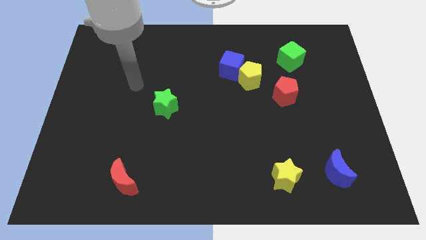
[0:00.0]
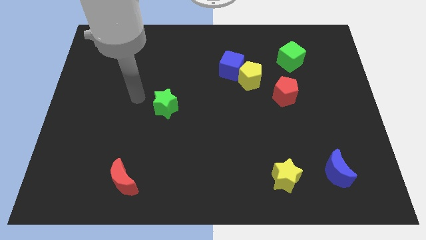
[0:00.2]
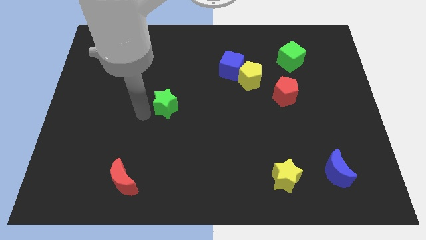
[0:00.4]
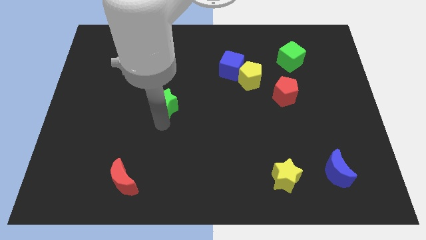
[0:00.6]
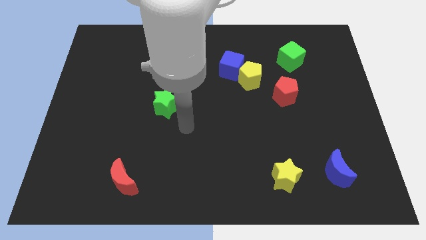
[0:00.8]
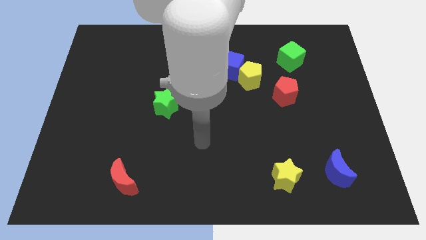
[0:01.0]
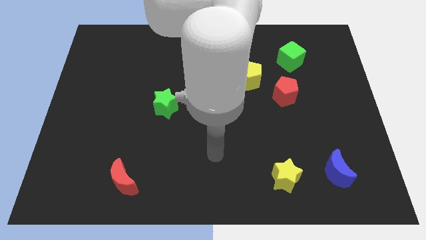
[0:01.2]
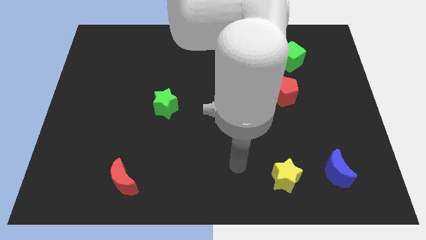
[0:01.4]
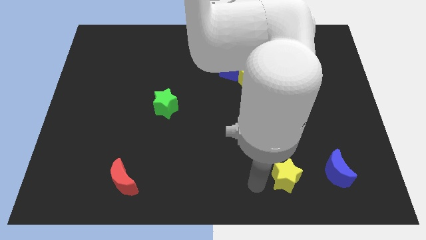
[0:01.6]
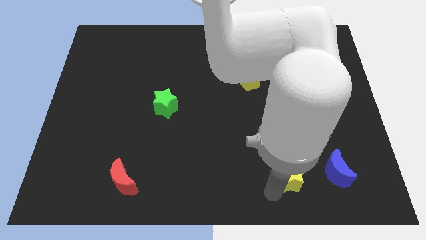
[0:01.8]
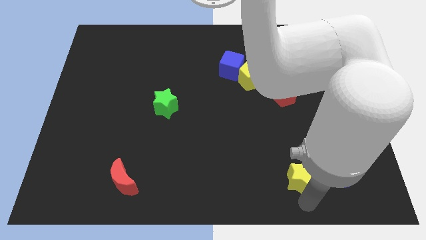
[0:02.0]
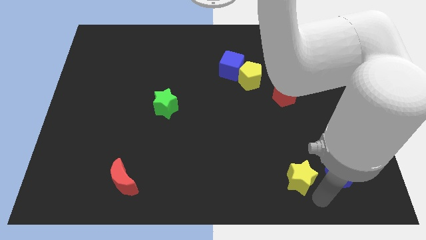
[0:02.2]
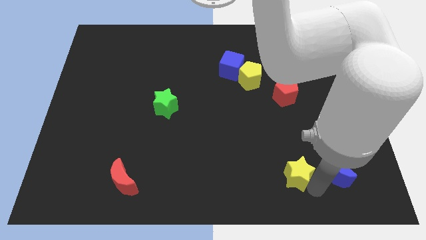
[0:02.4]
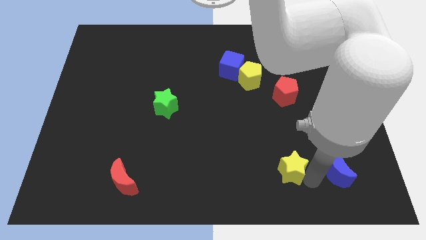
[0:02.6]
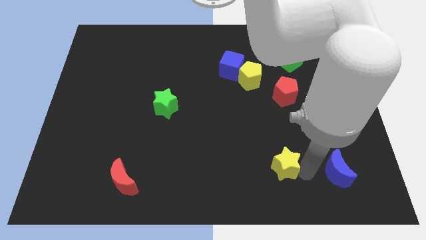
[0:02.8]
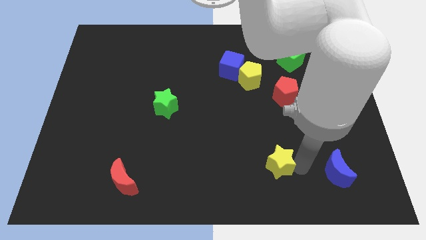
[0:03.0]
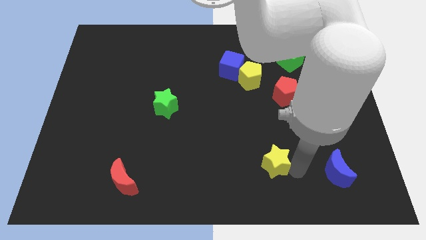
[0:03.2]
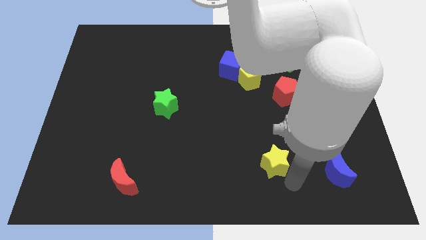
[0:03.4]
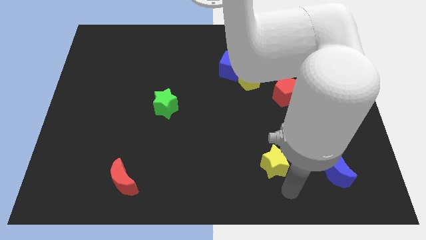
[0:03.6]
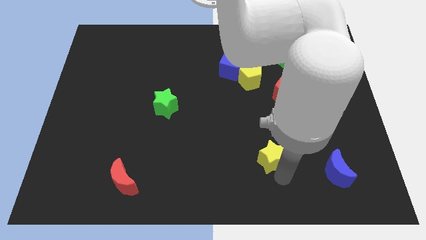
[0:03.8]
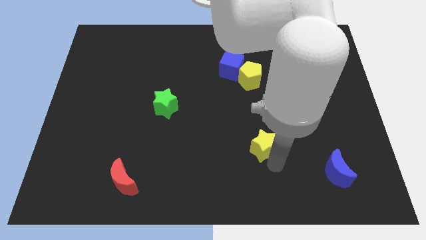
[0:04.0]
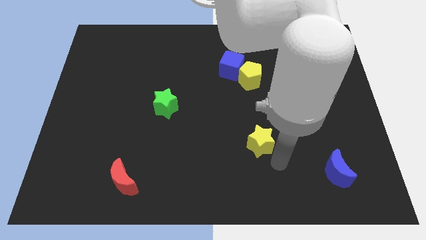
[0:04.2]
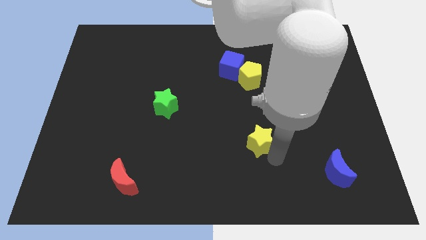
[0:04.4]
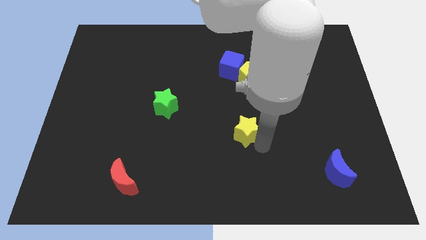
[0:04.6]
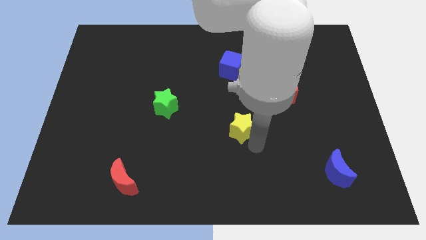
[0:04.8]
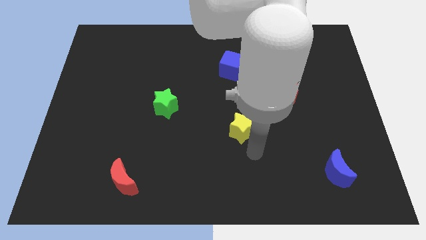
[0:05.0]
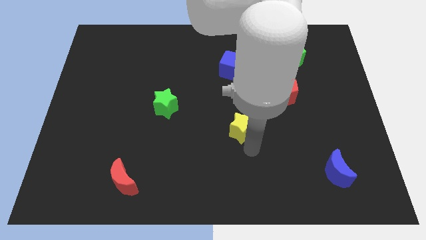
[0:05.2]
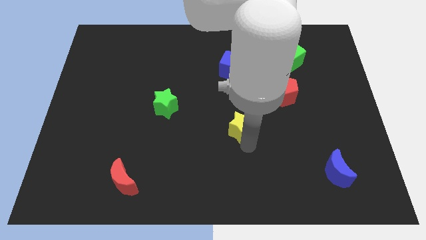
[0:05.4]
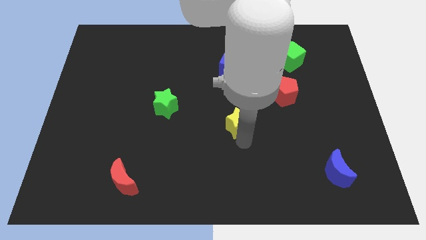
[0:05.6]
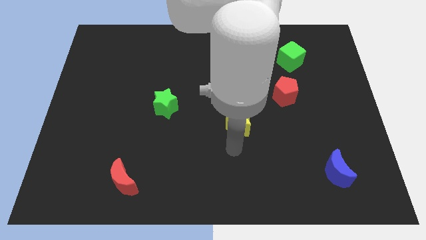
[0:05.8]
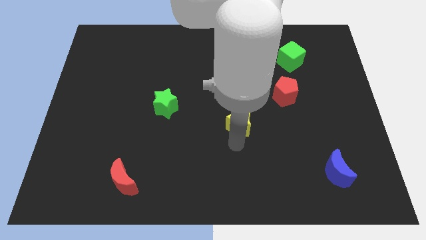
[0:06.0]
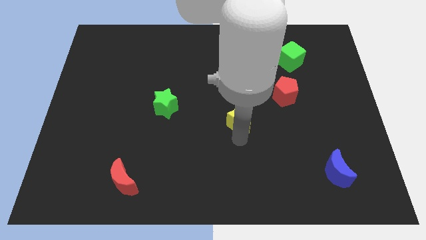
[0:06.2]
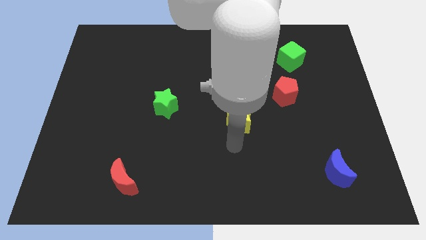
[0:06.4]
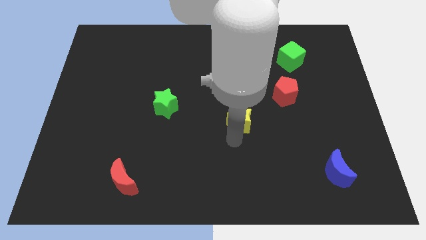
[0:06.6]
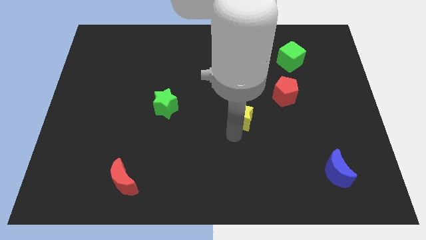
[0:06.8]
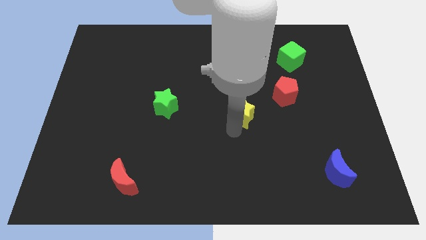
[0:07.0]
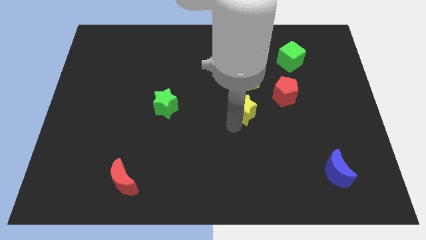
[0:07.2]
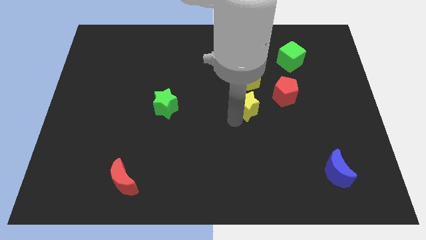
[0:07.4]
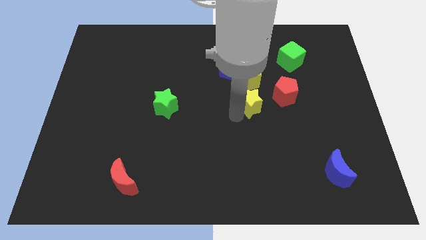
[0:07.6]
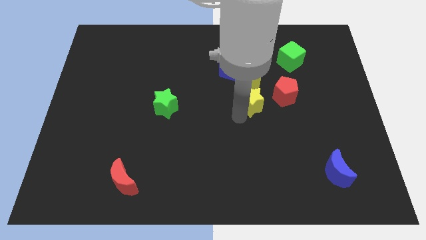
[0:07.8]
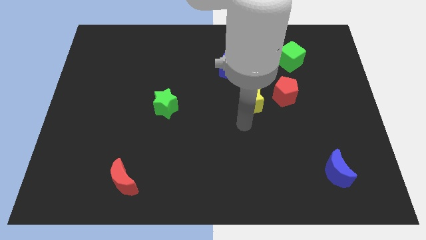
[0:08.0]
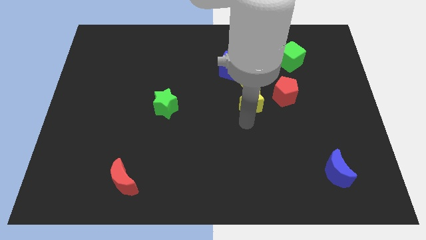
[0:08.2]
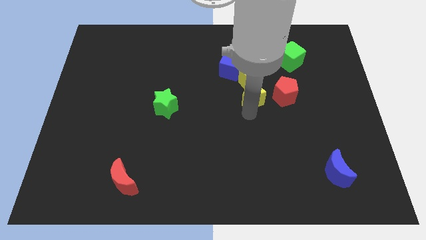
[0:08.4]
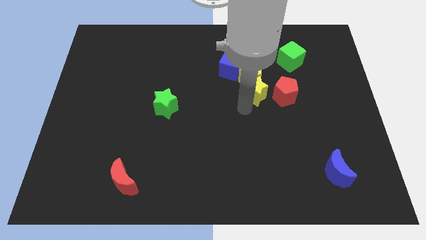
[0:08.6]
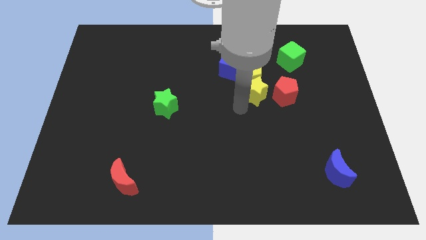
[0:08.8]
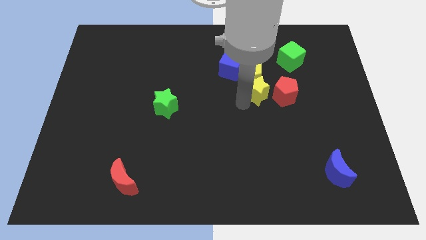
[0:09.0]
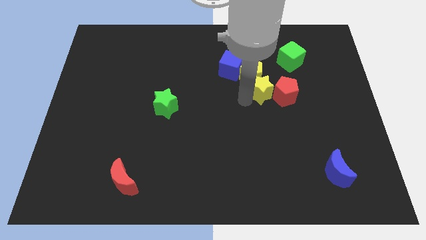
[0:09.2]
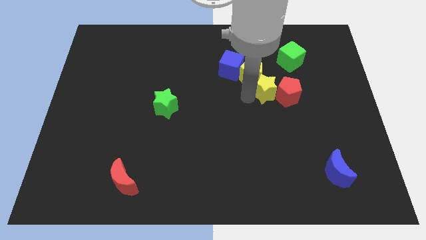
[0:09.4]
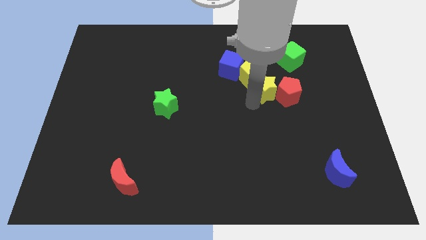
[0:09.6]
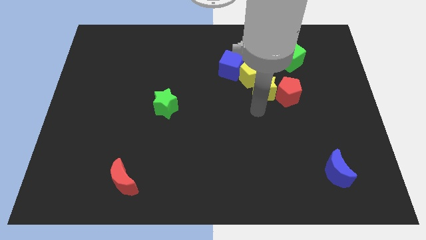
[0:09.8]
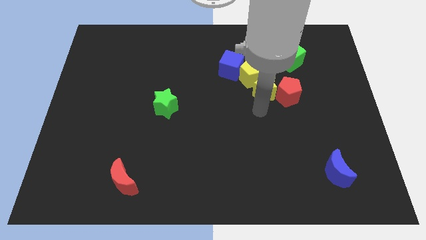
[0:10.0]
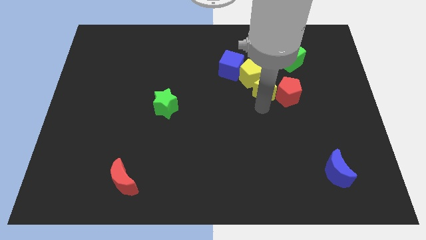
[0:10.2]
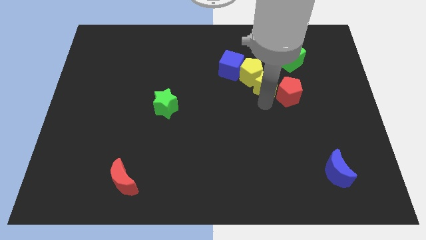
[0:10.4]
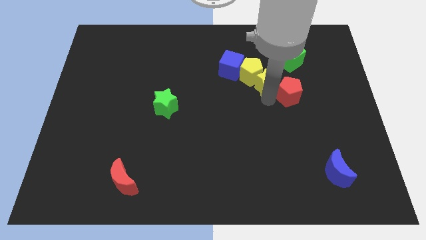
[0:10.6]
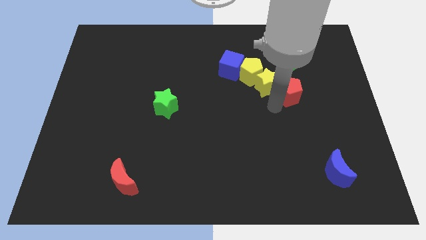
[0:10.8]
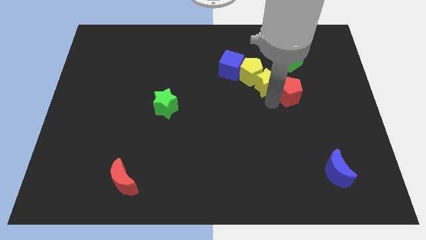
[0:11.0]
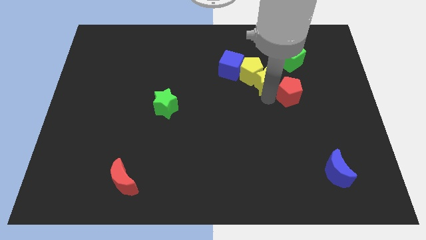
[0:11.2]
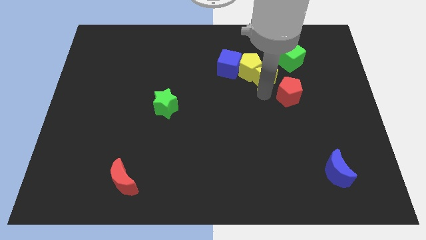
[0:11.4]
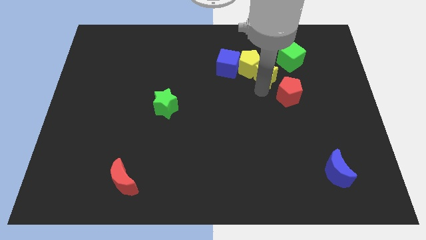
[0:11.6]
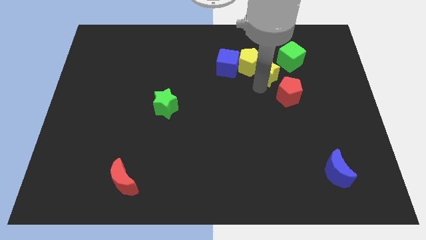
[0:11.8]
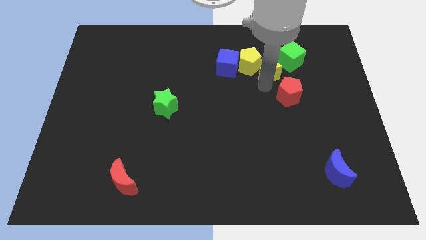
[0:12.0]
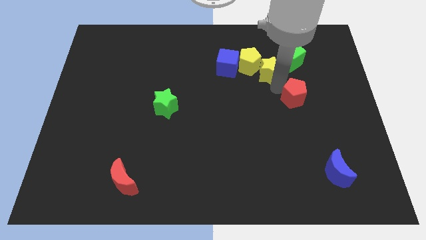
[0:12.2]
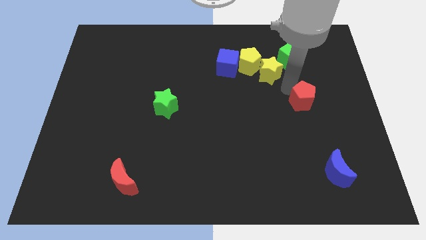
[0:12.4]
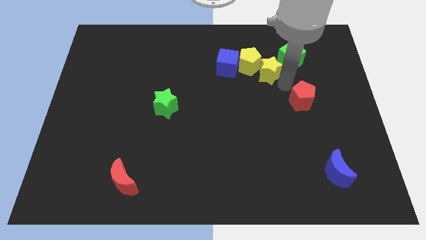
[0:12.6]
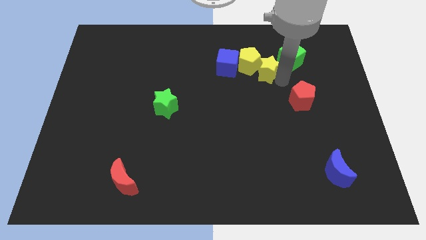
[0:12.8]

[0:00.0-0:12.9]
move the yellow star to the left of the green cube
